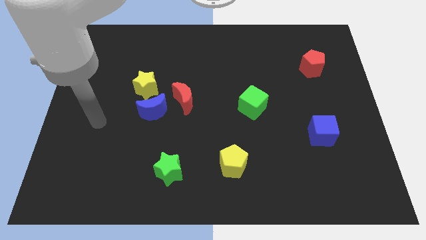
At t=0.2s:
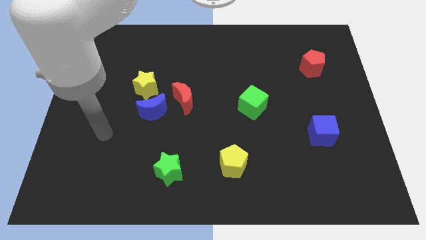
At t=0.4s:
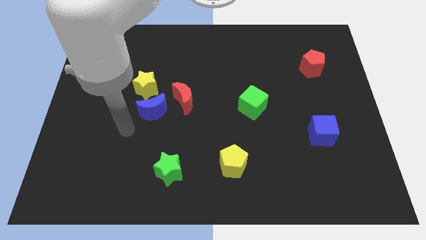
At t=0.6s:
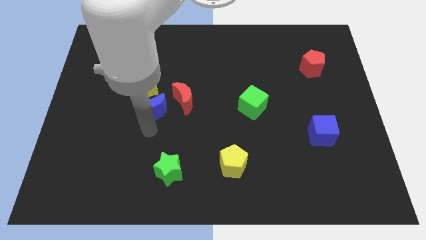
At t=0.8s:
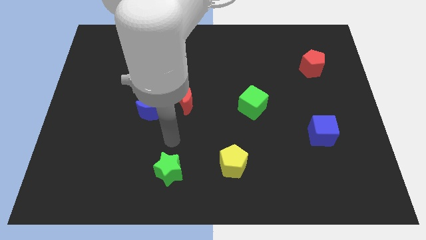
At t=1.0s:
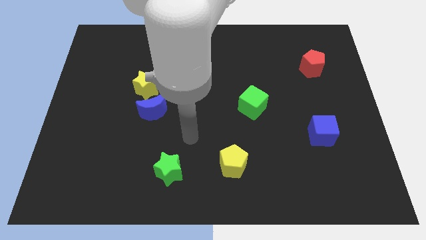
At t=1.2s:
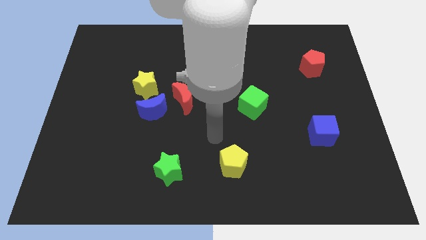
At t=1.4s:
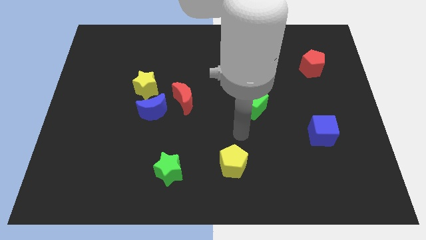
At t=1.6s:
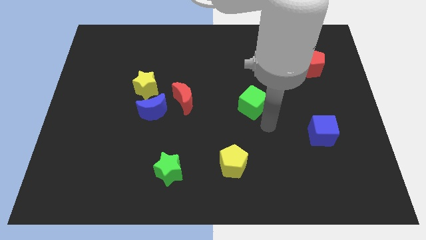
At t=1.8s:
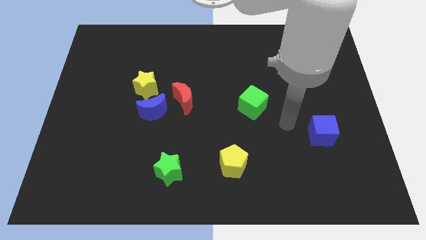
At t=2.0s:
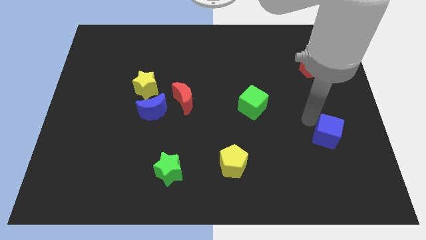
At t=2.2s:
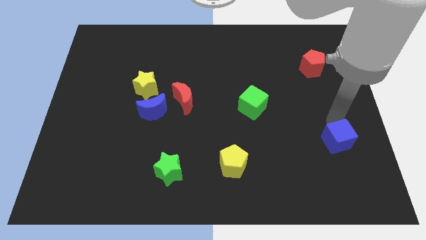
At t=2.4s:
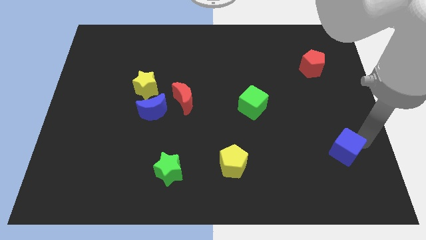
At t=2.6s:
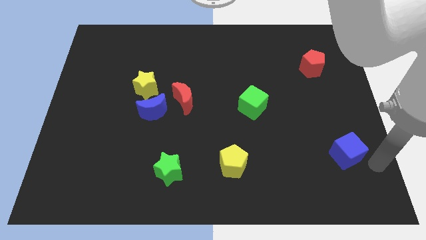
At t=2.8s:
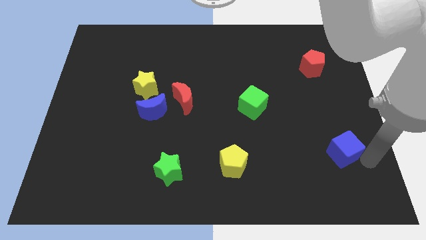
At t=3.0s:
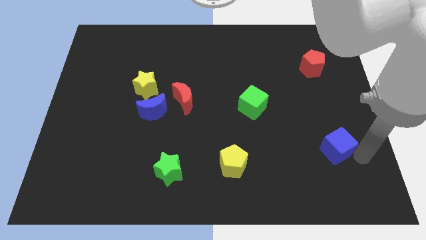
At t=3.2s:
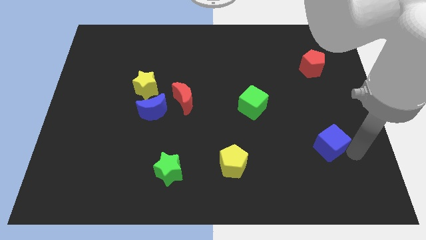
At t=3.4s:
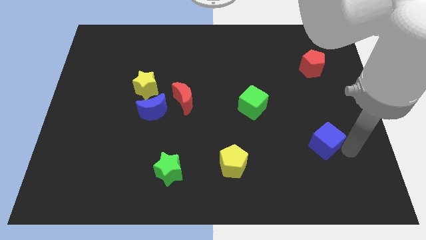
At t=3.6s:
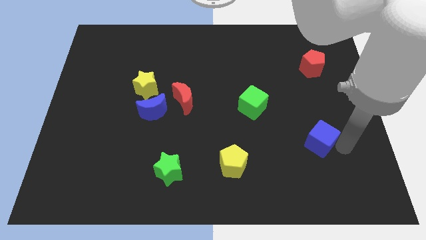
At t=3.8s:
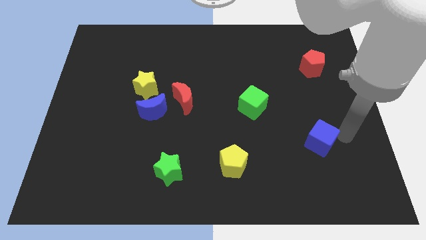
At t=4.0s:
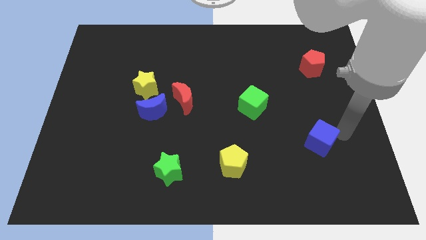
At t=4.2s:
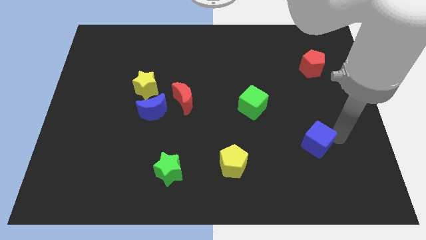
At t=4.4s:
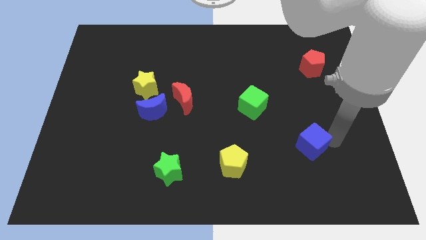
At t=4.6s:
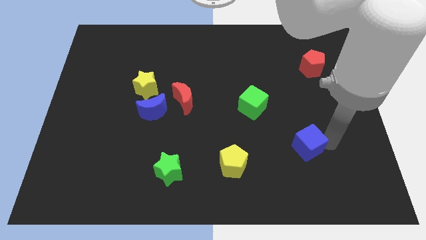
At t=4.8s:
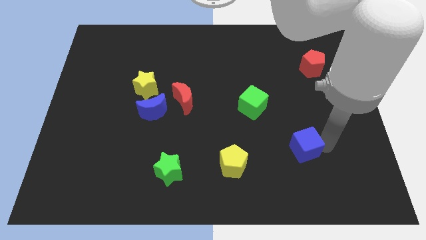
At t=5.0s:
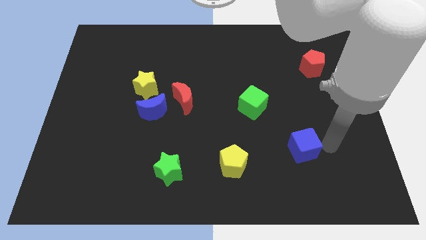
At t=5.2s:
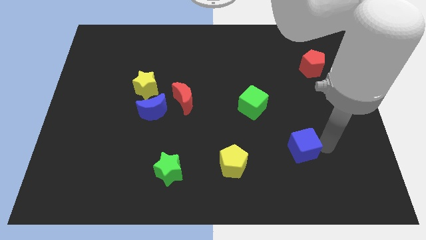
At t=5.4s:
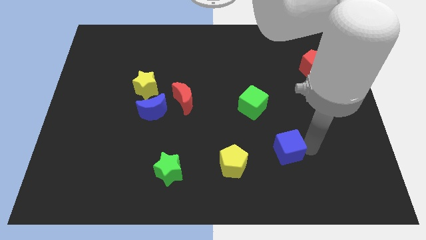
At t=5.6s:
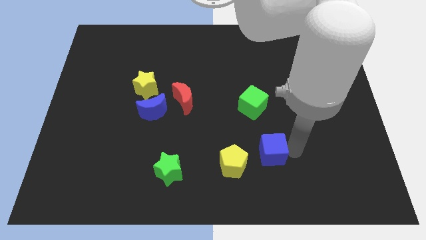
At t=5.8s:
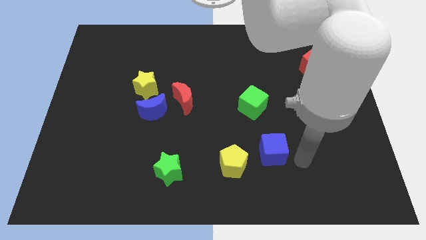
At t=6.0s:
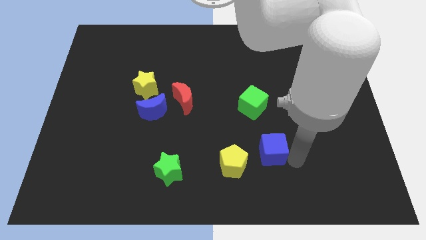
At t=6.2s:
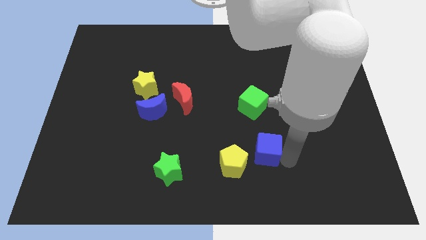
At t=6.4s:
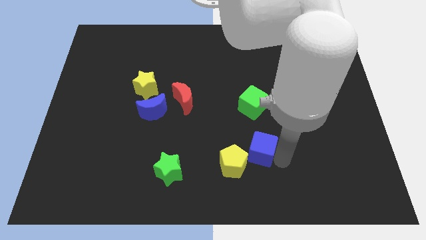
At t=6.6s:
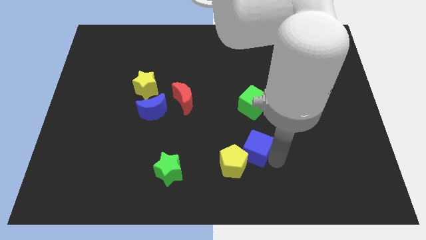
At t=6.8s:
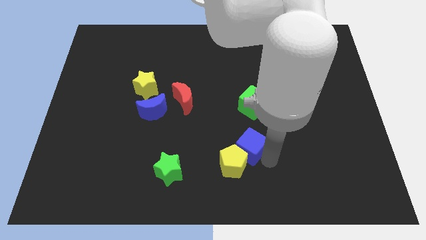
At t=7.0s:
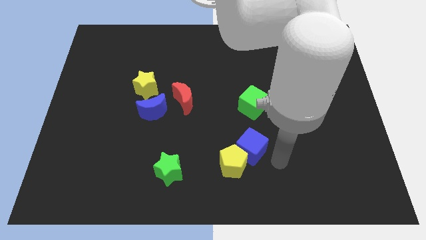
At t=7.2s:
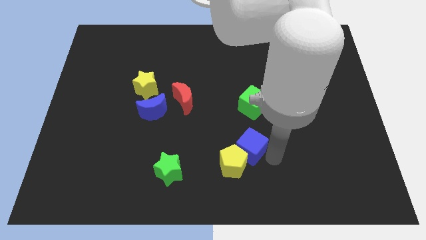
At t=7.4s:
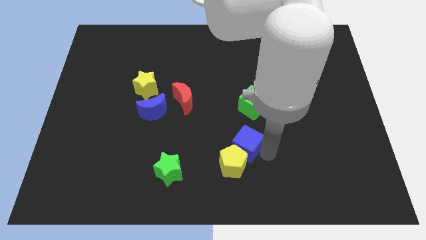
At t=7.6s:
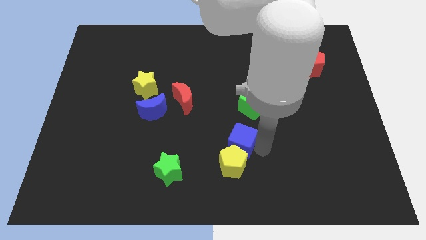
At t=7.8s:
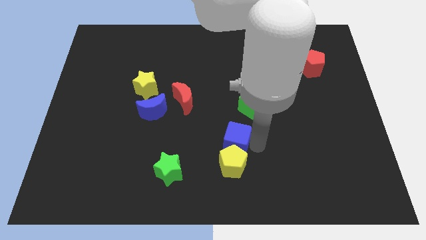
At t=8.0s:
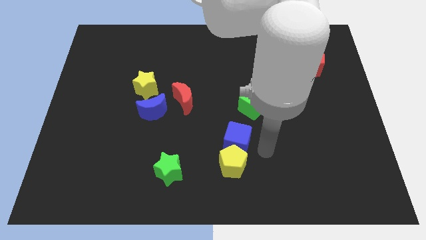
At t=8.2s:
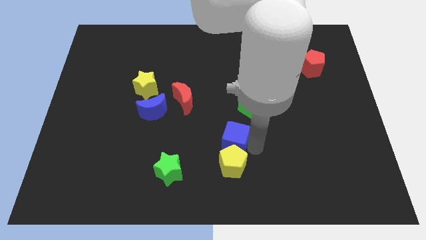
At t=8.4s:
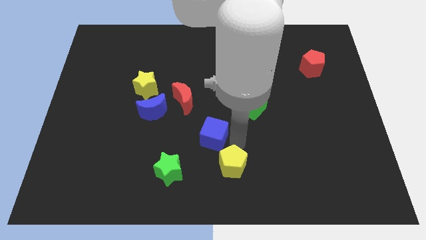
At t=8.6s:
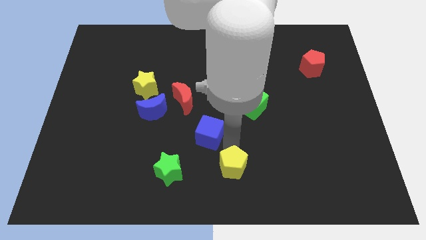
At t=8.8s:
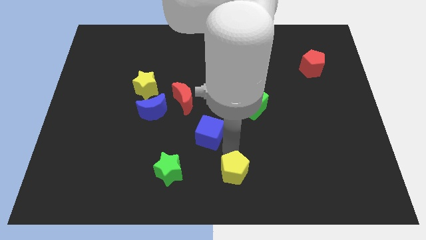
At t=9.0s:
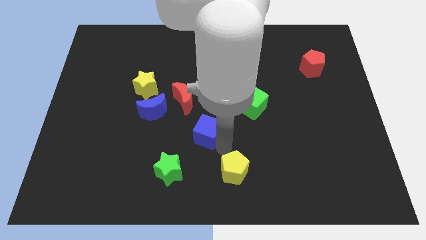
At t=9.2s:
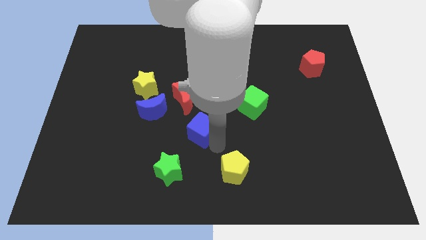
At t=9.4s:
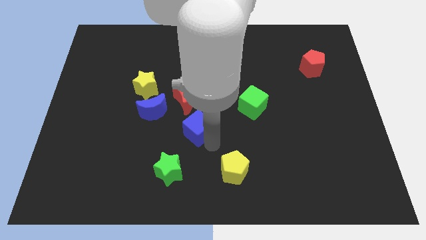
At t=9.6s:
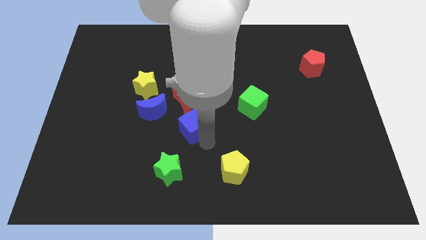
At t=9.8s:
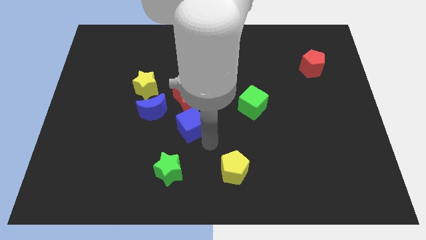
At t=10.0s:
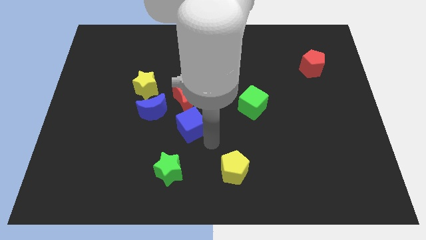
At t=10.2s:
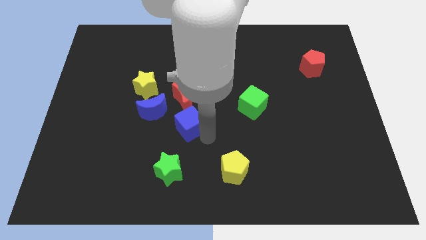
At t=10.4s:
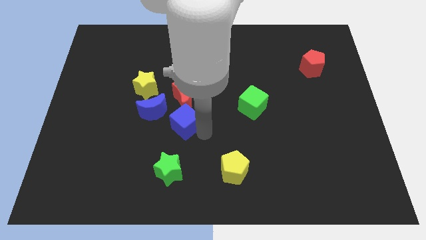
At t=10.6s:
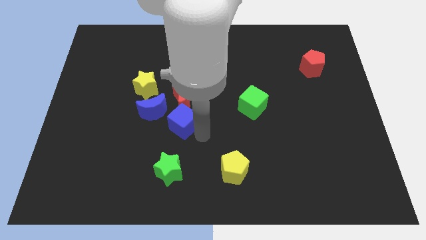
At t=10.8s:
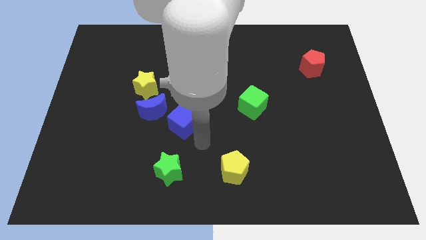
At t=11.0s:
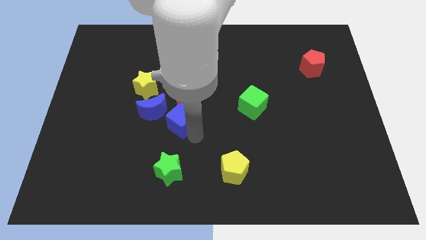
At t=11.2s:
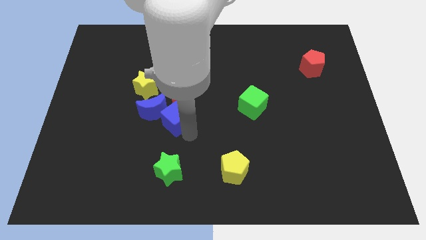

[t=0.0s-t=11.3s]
put the blue cube next to the blue moon

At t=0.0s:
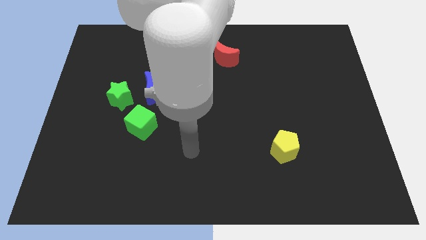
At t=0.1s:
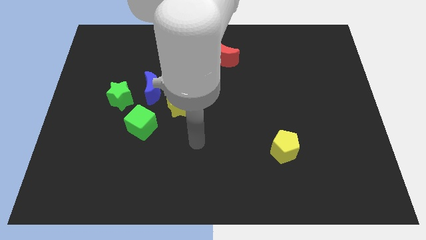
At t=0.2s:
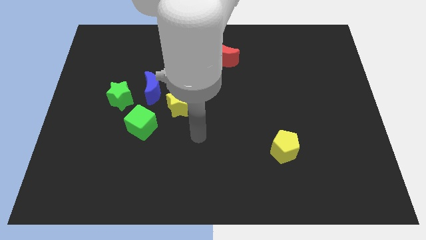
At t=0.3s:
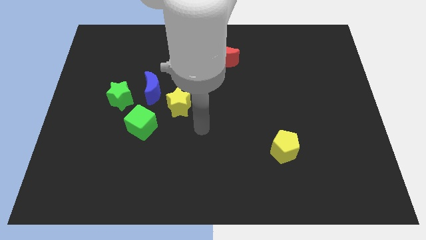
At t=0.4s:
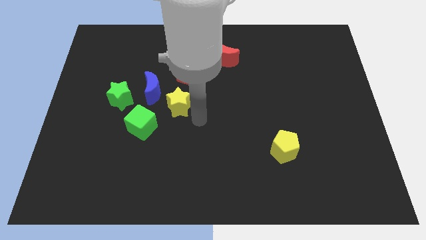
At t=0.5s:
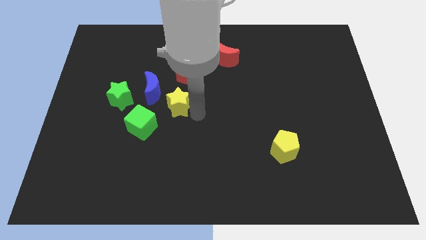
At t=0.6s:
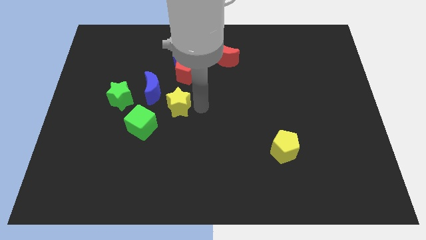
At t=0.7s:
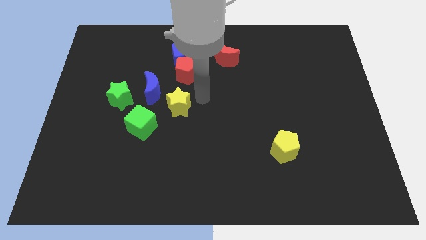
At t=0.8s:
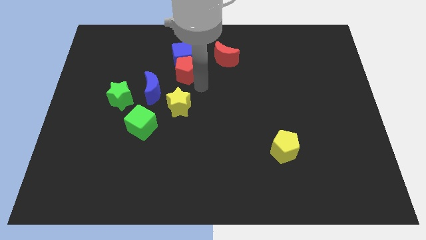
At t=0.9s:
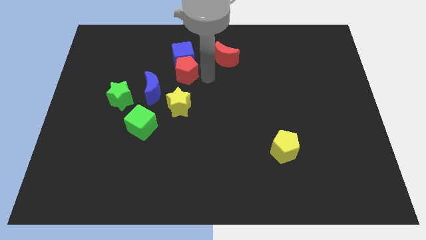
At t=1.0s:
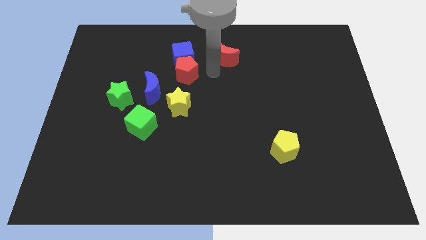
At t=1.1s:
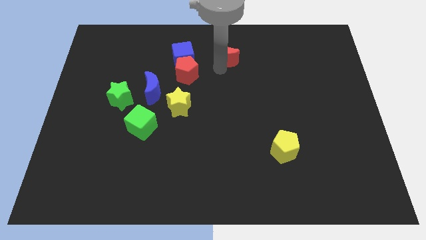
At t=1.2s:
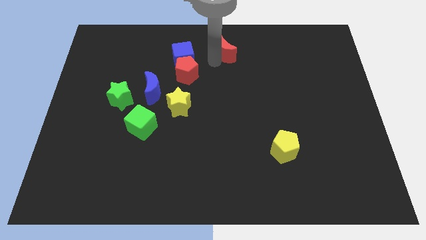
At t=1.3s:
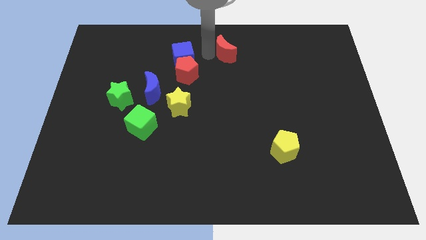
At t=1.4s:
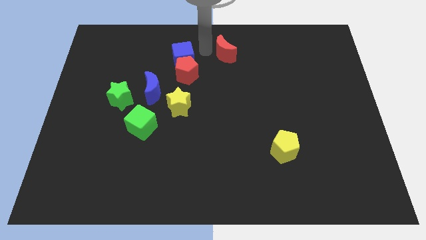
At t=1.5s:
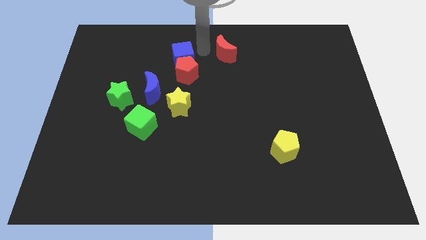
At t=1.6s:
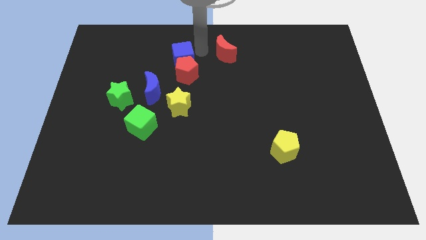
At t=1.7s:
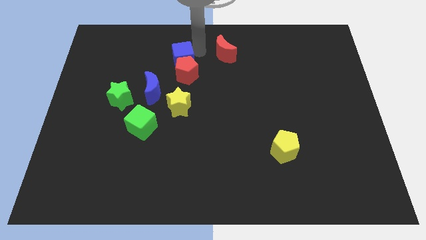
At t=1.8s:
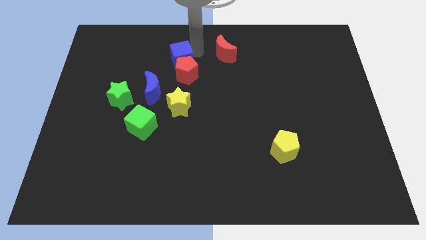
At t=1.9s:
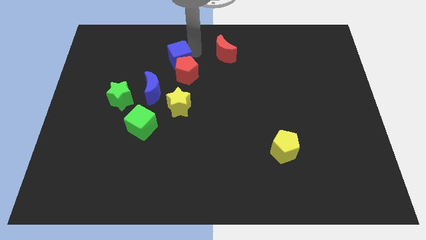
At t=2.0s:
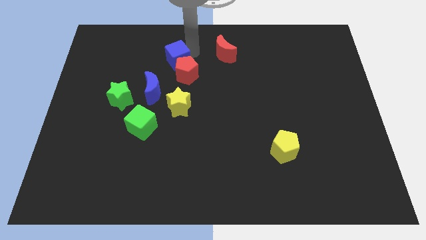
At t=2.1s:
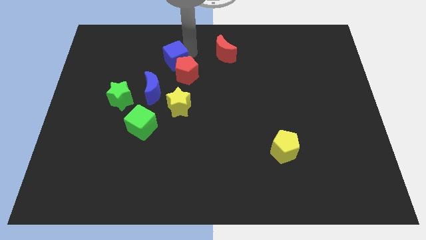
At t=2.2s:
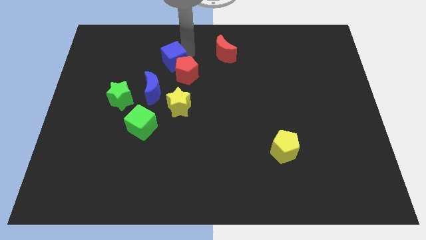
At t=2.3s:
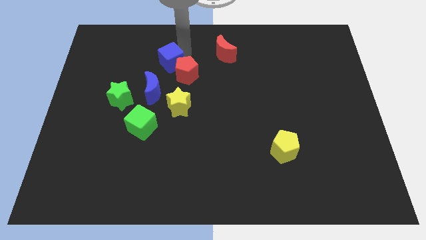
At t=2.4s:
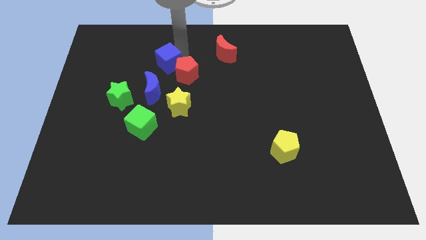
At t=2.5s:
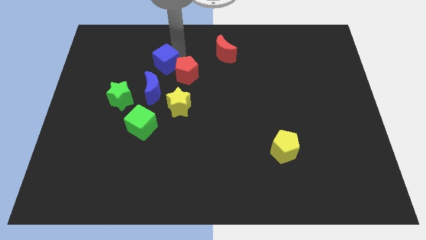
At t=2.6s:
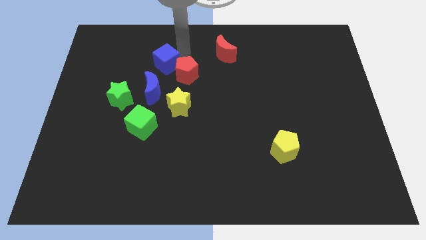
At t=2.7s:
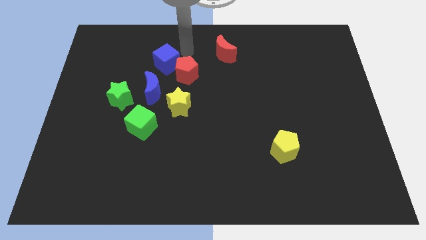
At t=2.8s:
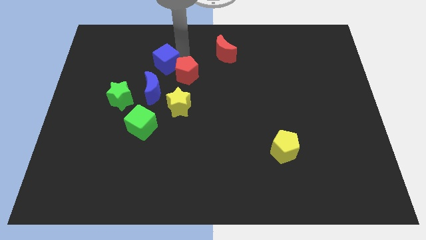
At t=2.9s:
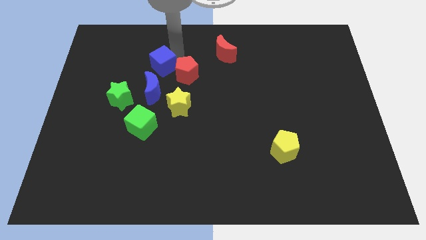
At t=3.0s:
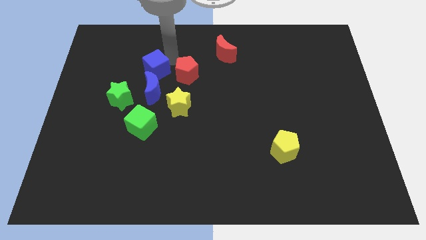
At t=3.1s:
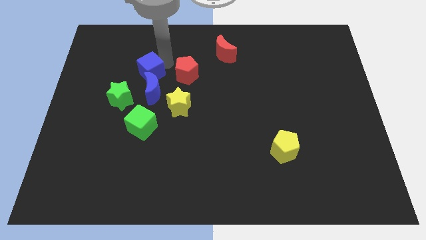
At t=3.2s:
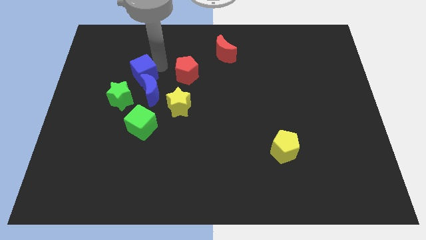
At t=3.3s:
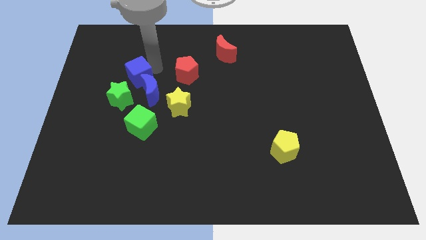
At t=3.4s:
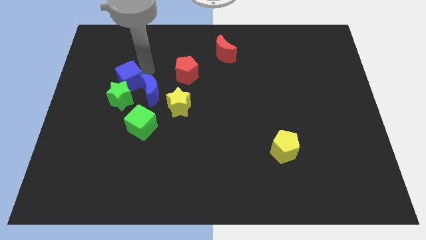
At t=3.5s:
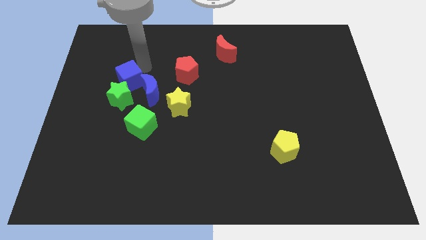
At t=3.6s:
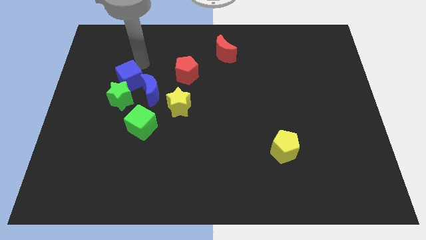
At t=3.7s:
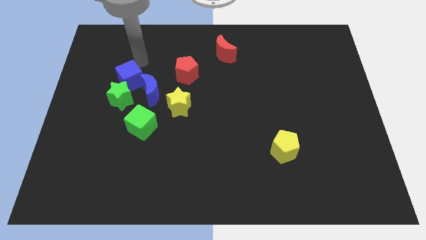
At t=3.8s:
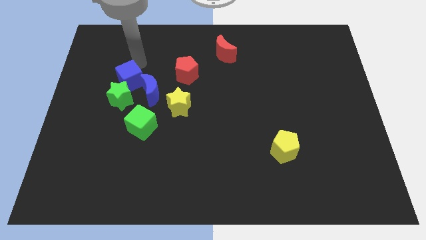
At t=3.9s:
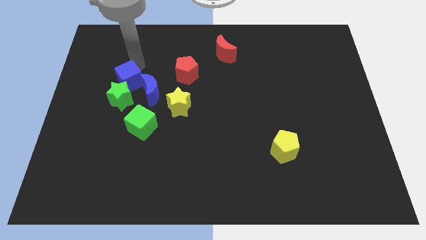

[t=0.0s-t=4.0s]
slide the blue cube to the green star
